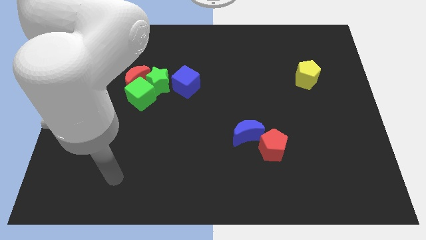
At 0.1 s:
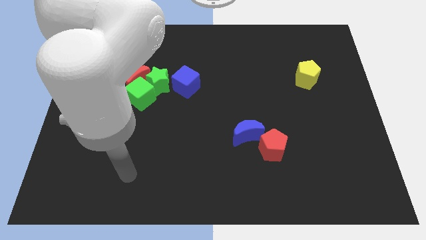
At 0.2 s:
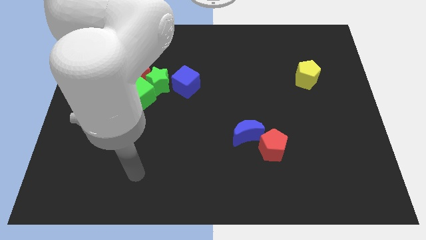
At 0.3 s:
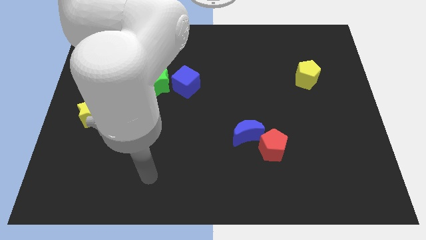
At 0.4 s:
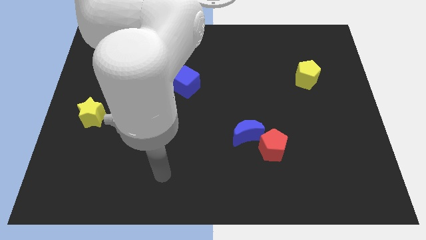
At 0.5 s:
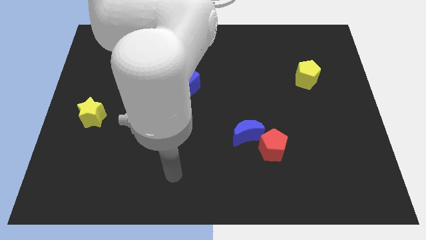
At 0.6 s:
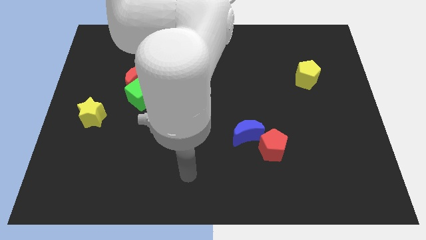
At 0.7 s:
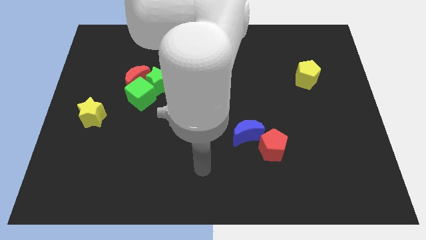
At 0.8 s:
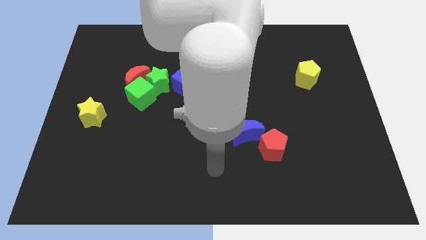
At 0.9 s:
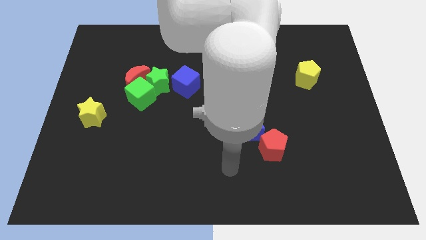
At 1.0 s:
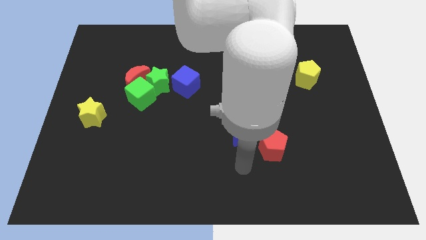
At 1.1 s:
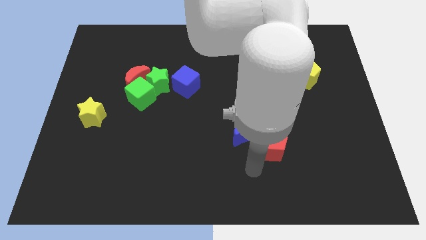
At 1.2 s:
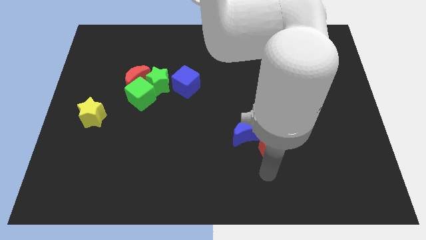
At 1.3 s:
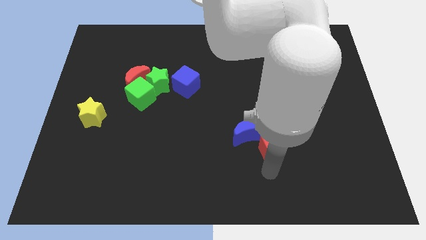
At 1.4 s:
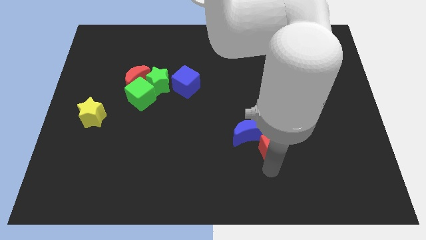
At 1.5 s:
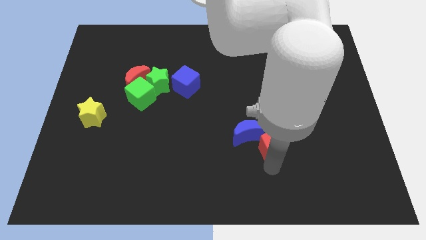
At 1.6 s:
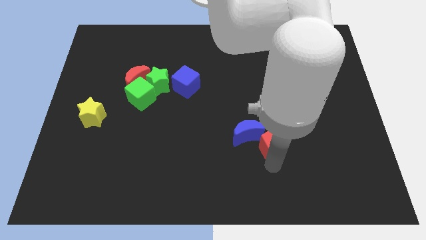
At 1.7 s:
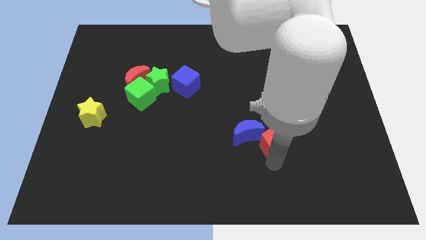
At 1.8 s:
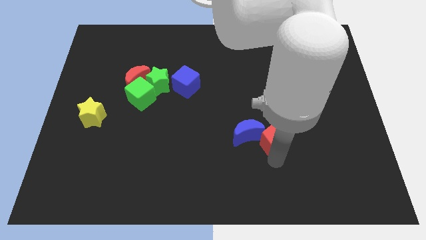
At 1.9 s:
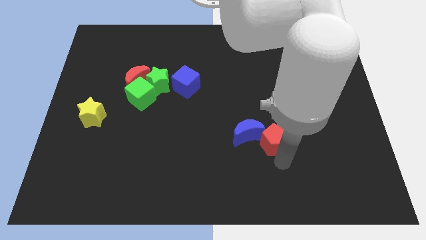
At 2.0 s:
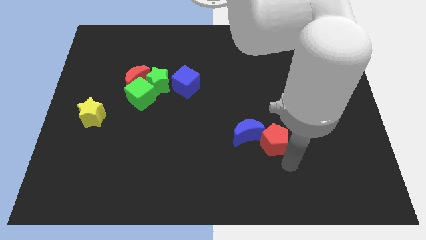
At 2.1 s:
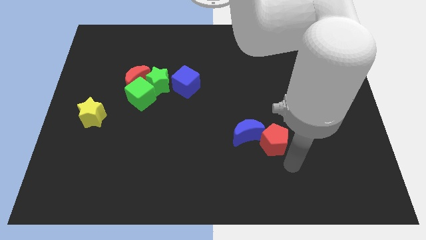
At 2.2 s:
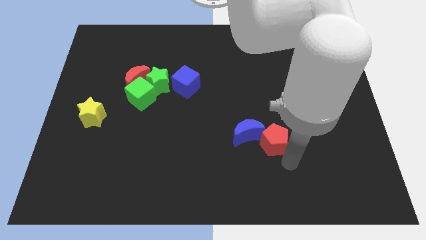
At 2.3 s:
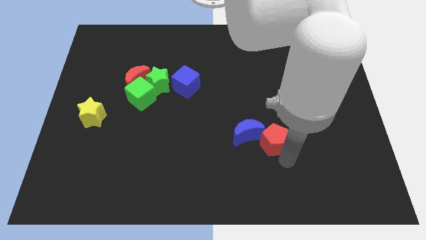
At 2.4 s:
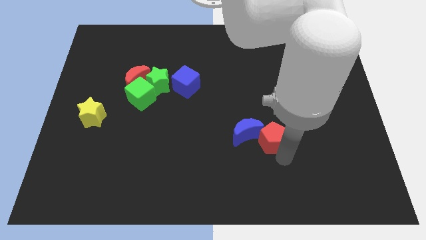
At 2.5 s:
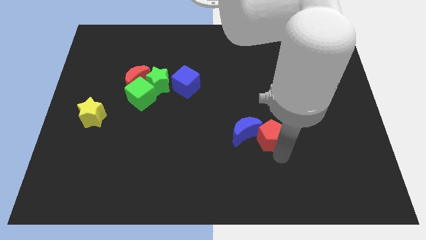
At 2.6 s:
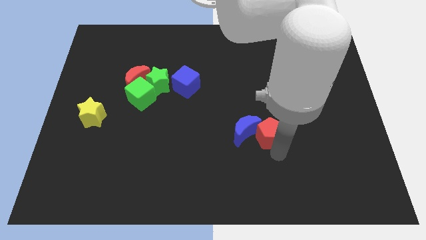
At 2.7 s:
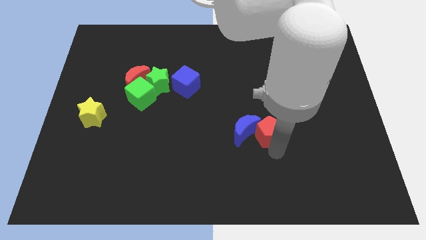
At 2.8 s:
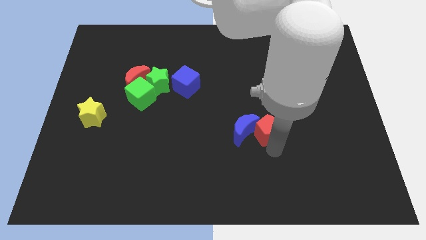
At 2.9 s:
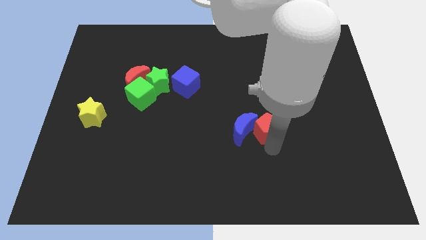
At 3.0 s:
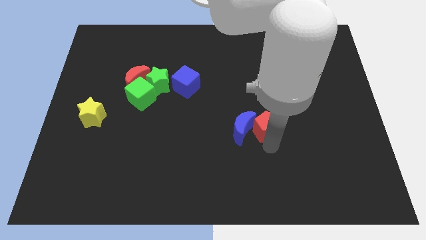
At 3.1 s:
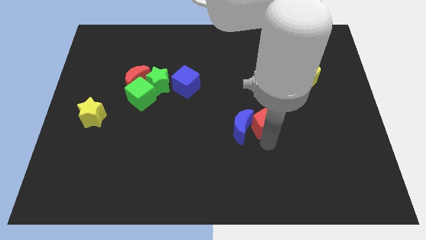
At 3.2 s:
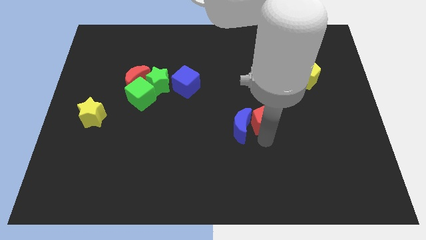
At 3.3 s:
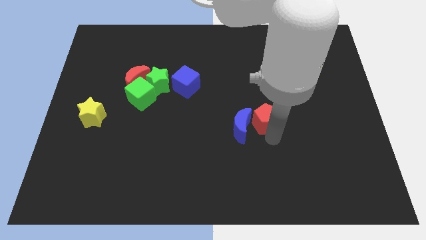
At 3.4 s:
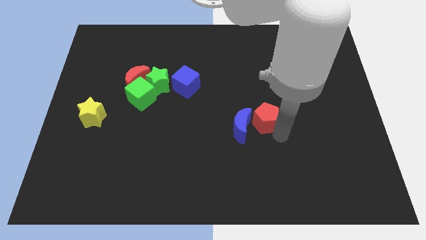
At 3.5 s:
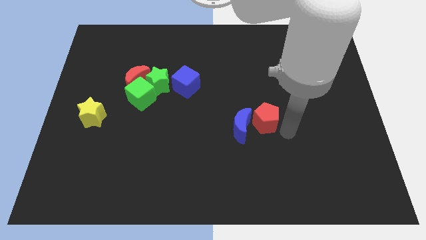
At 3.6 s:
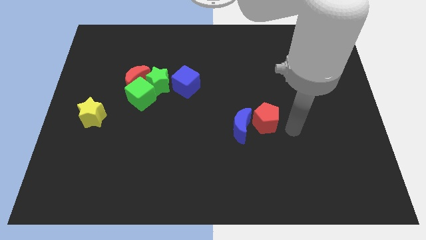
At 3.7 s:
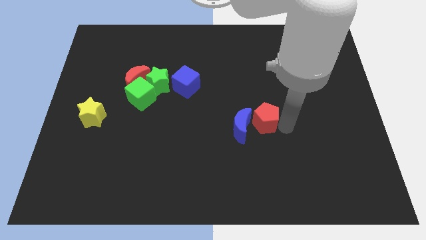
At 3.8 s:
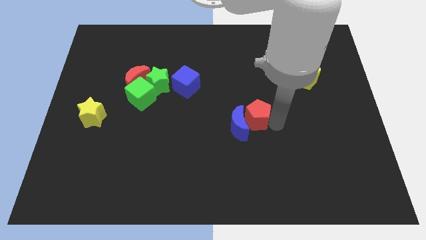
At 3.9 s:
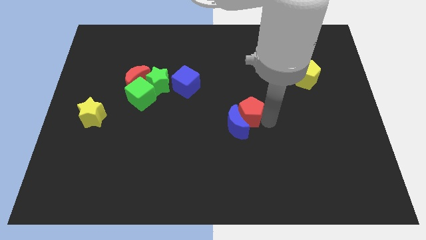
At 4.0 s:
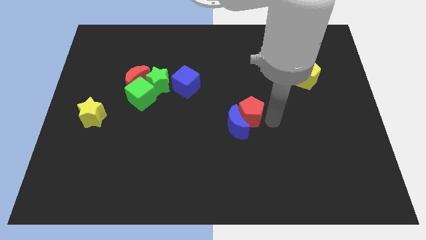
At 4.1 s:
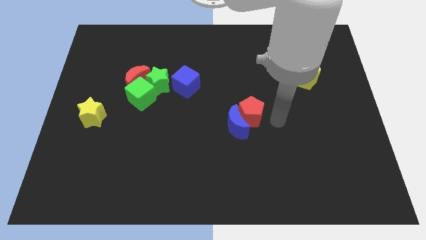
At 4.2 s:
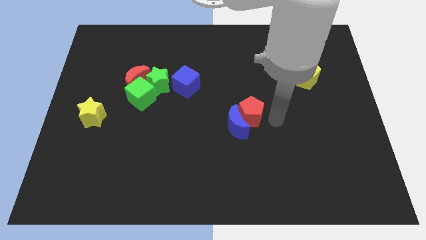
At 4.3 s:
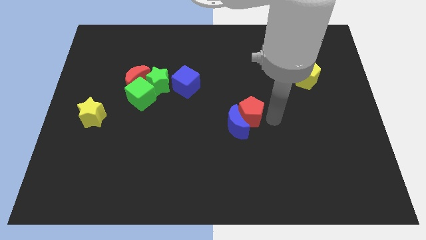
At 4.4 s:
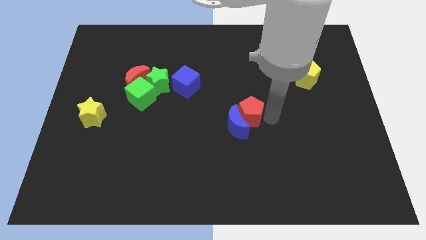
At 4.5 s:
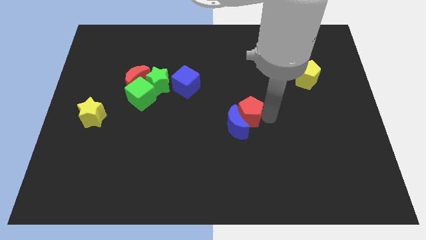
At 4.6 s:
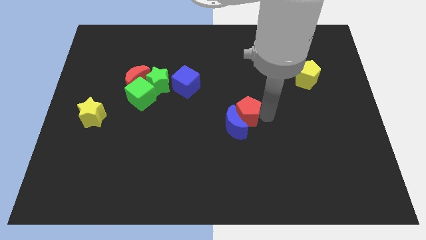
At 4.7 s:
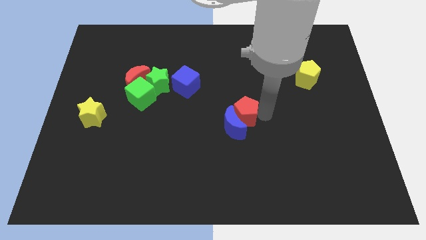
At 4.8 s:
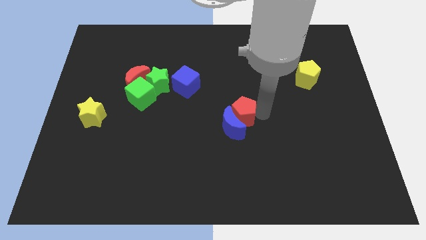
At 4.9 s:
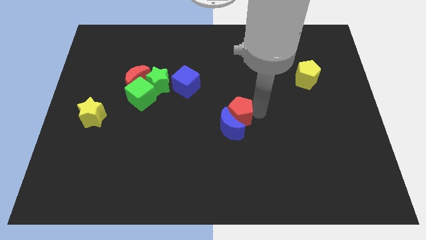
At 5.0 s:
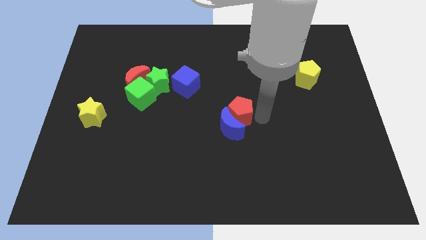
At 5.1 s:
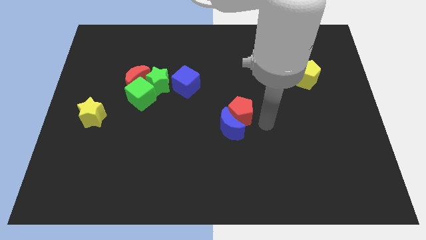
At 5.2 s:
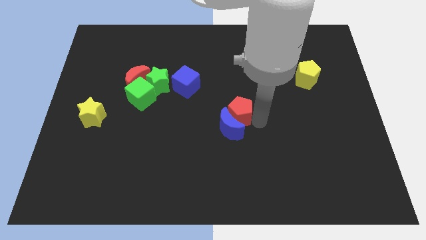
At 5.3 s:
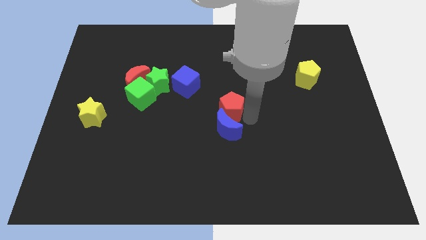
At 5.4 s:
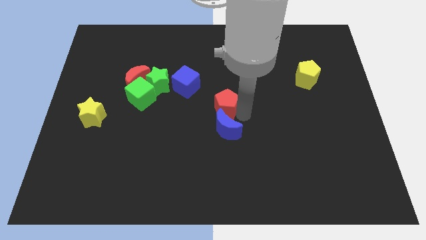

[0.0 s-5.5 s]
push the red pentagon to the bottom right side of the blue cube

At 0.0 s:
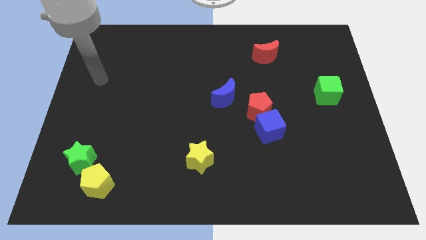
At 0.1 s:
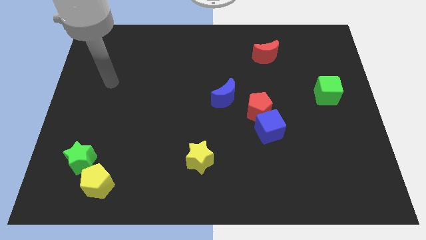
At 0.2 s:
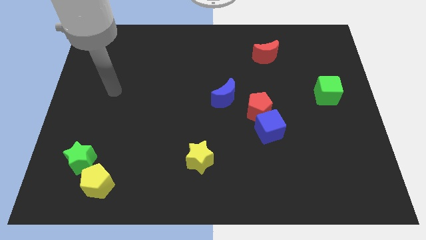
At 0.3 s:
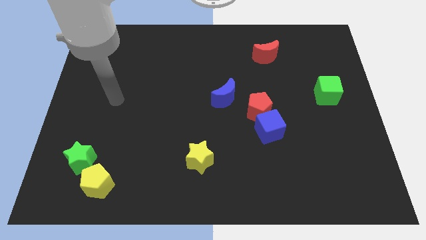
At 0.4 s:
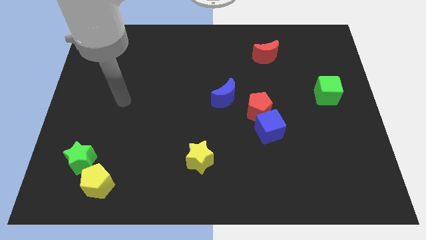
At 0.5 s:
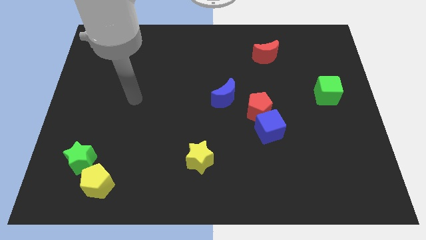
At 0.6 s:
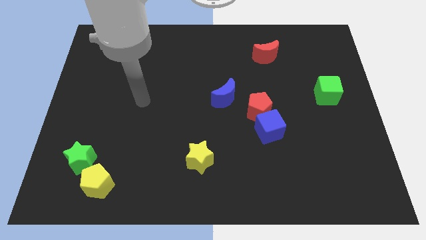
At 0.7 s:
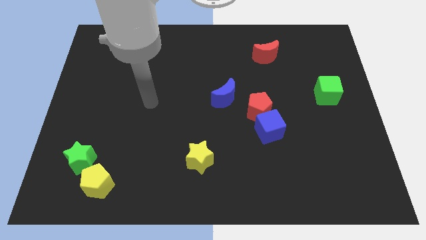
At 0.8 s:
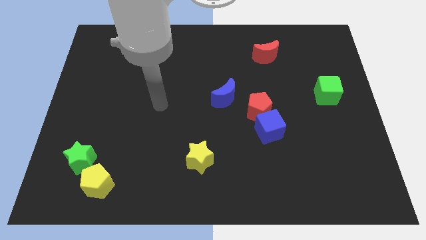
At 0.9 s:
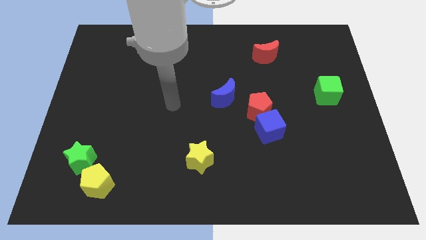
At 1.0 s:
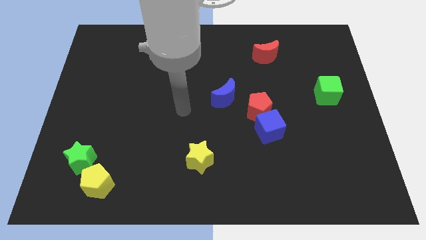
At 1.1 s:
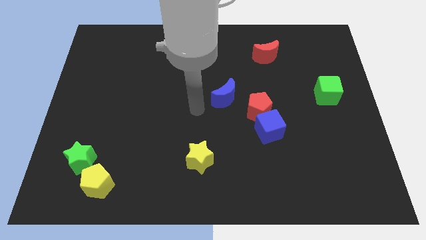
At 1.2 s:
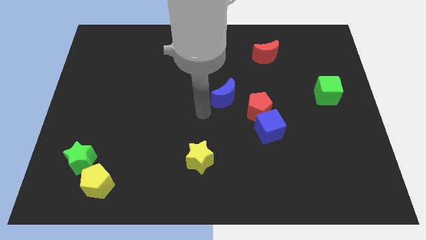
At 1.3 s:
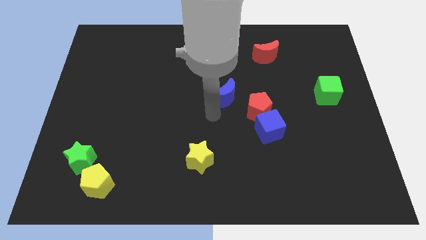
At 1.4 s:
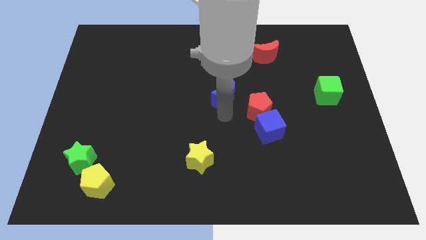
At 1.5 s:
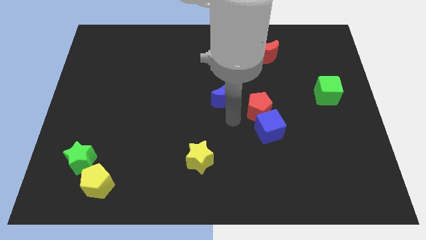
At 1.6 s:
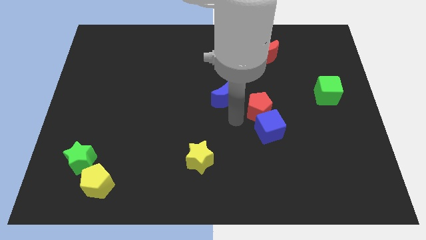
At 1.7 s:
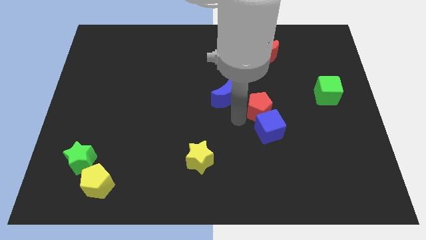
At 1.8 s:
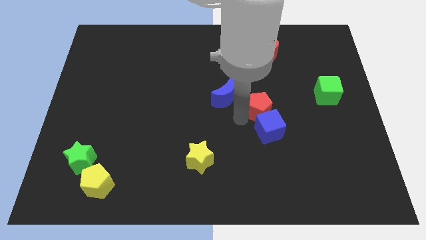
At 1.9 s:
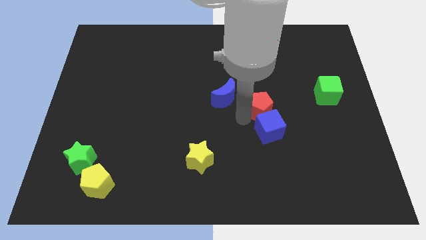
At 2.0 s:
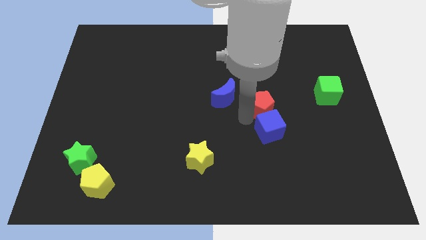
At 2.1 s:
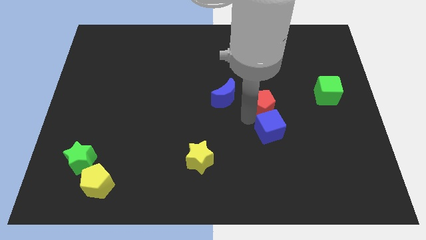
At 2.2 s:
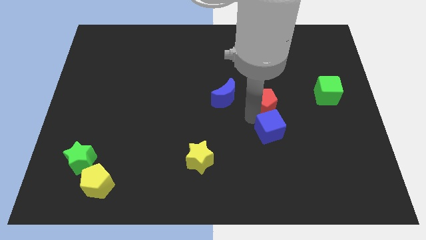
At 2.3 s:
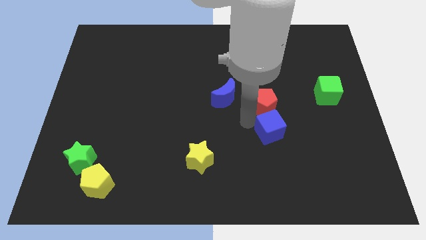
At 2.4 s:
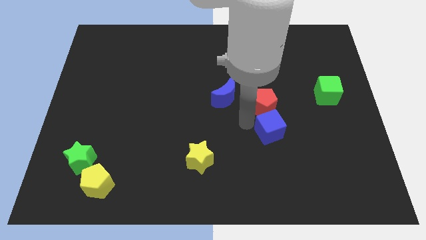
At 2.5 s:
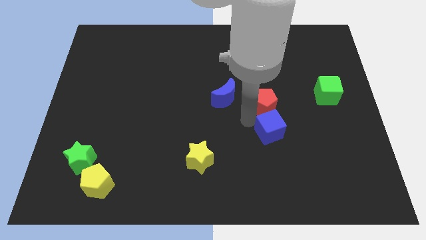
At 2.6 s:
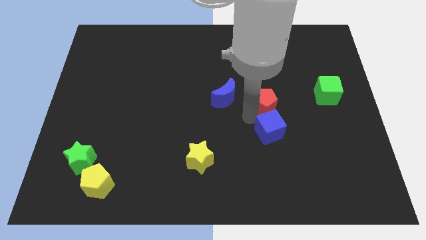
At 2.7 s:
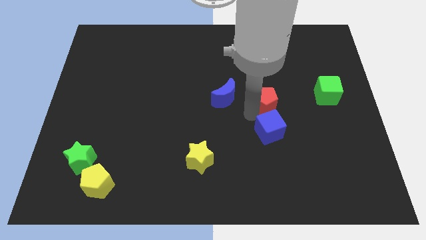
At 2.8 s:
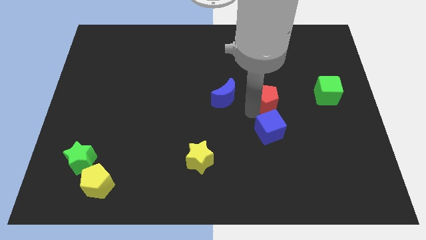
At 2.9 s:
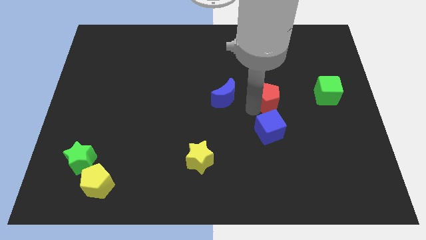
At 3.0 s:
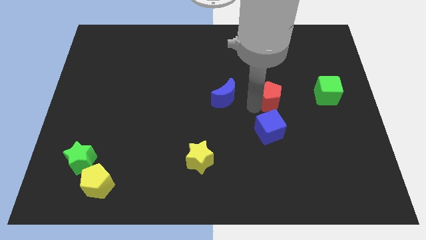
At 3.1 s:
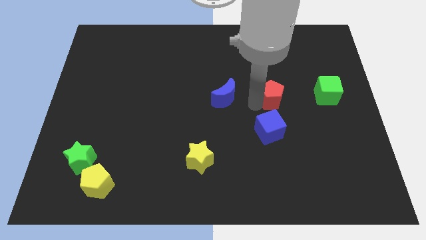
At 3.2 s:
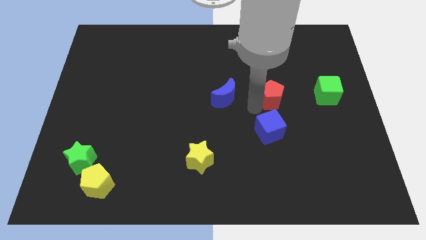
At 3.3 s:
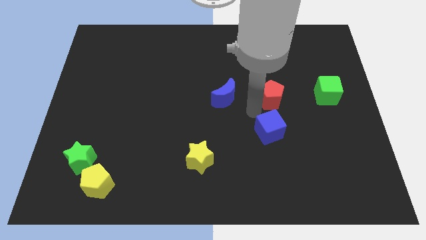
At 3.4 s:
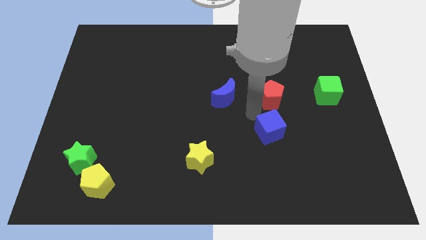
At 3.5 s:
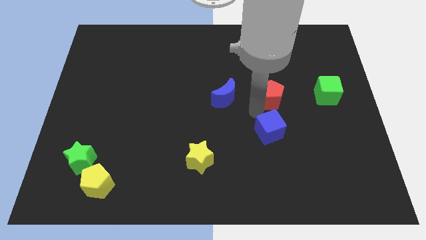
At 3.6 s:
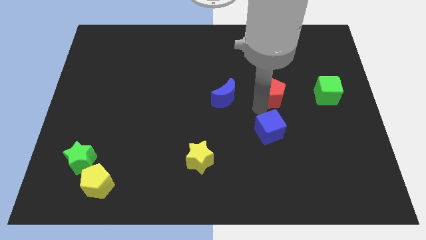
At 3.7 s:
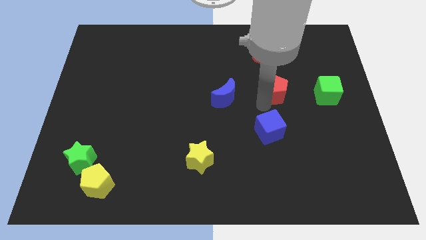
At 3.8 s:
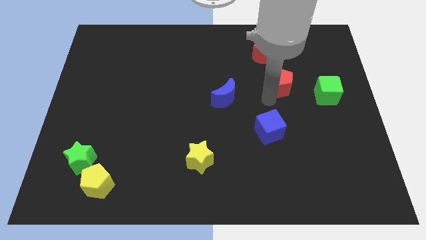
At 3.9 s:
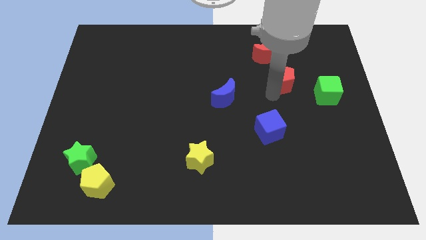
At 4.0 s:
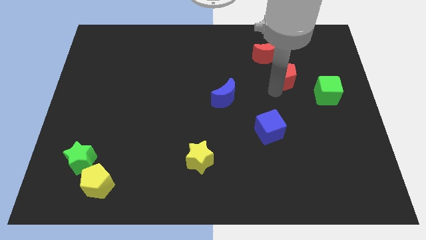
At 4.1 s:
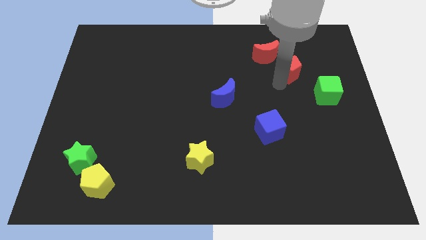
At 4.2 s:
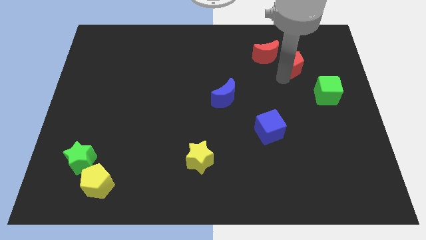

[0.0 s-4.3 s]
push the red pentagon right of the red moon
